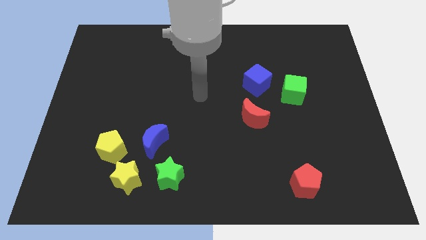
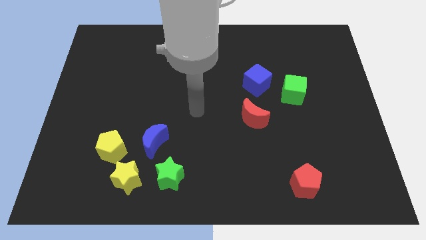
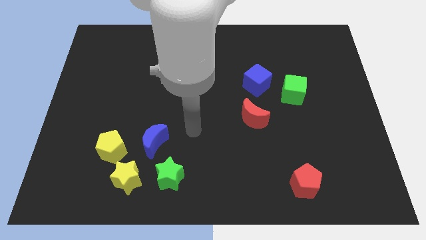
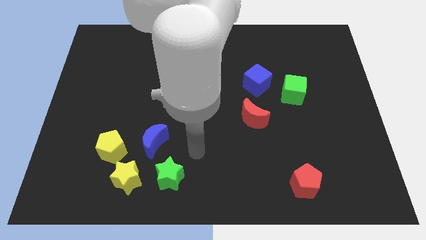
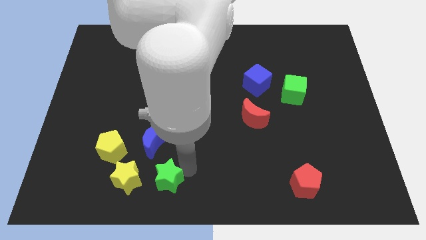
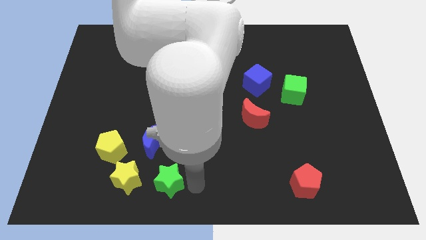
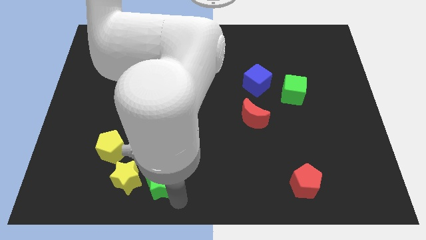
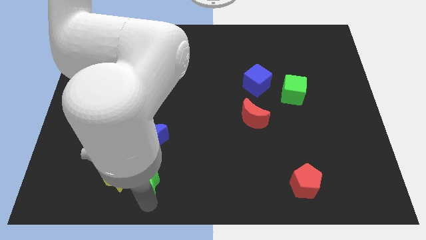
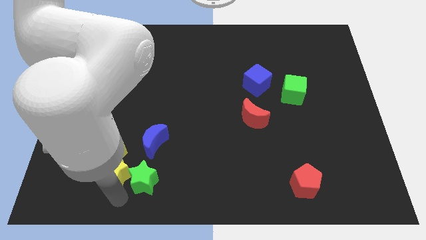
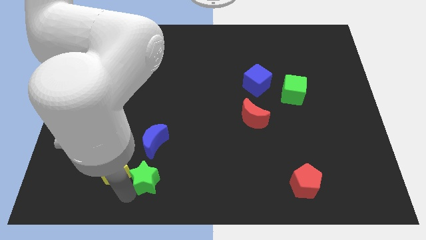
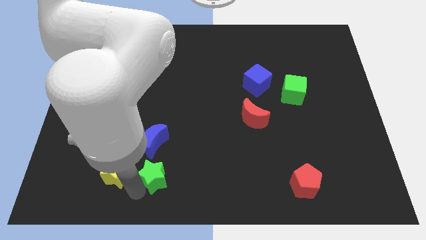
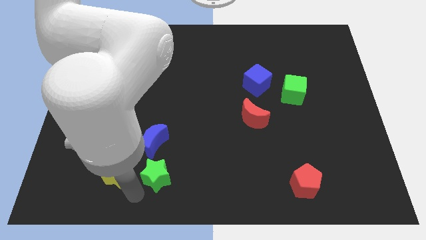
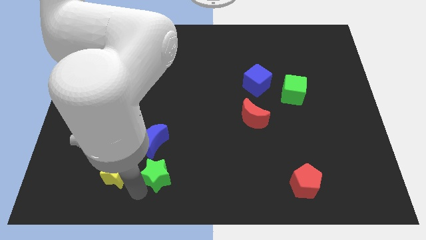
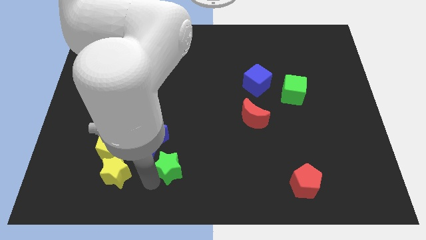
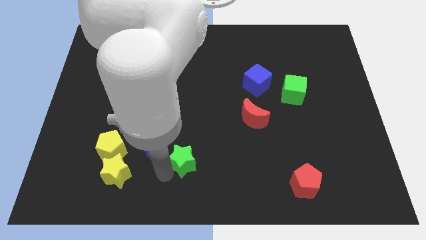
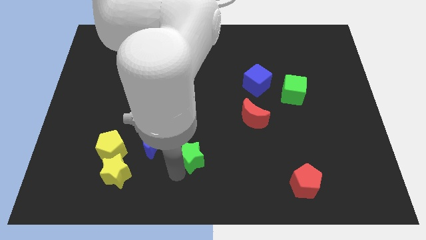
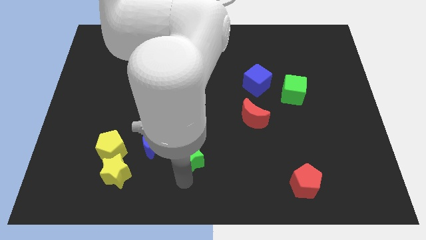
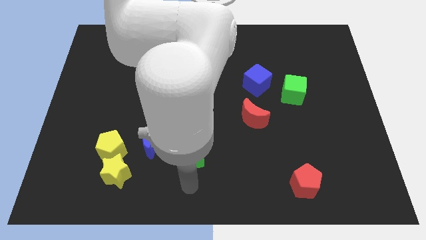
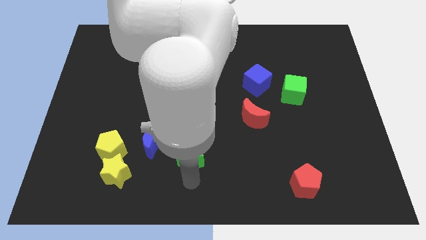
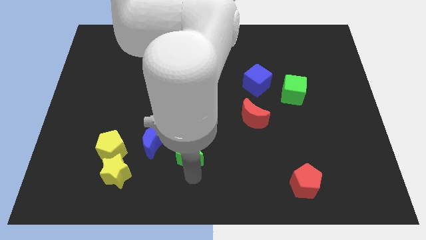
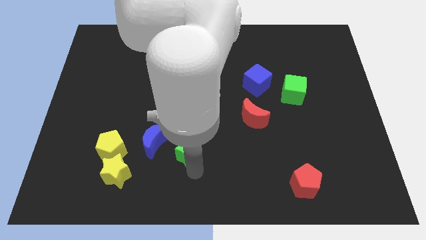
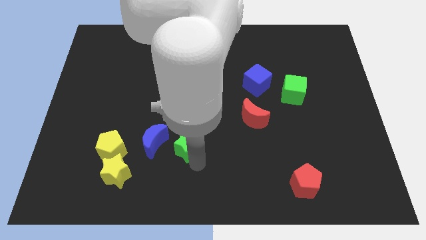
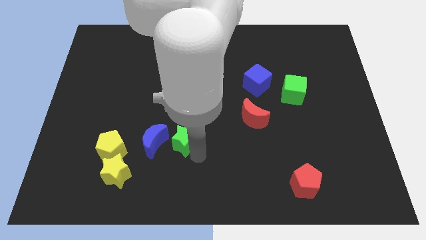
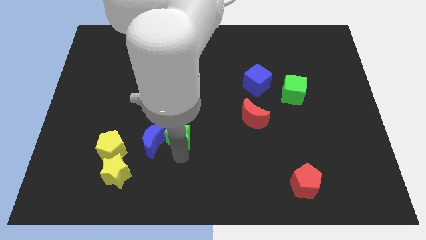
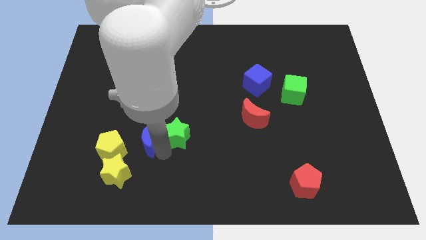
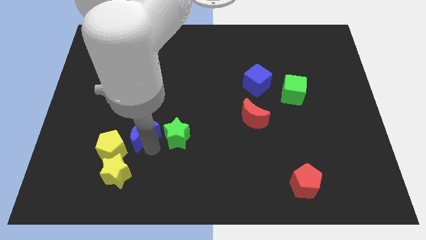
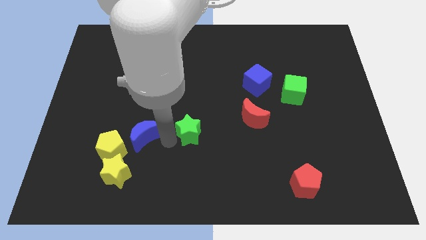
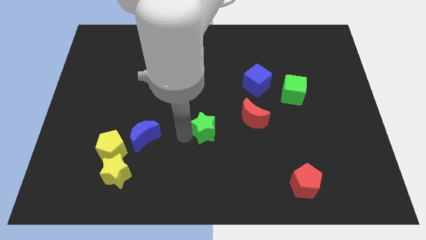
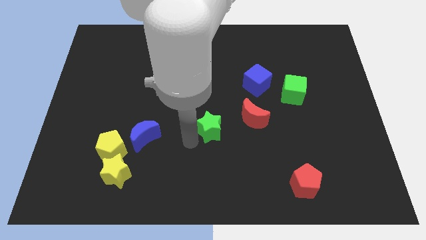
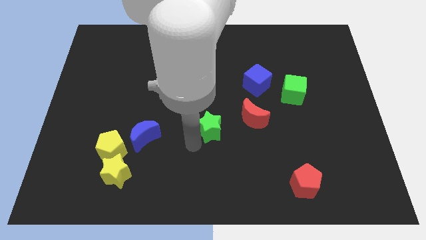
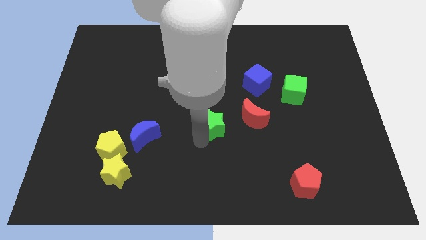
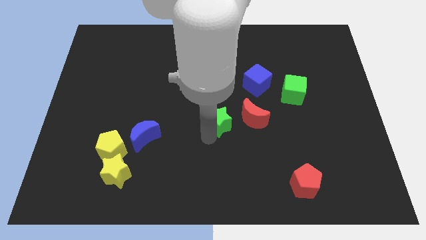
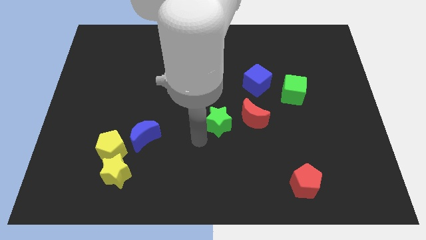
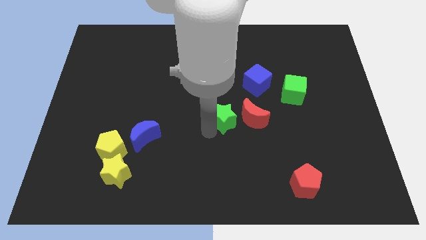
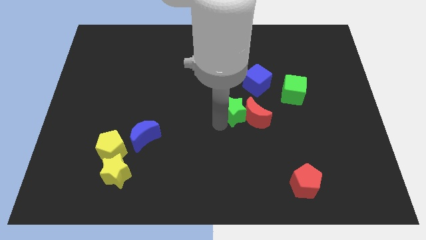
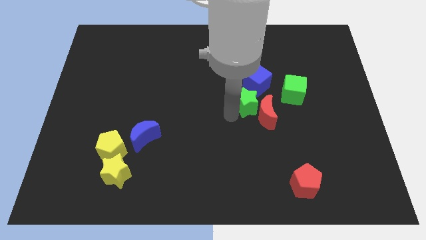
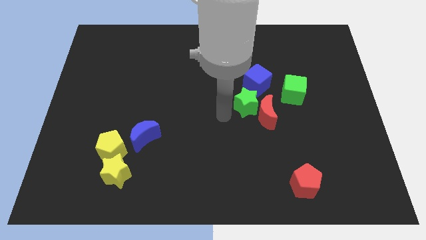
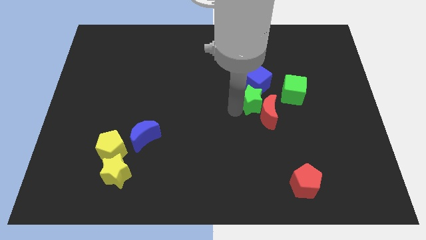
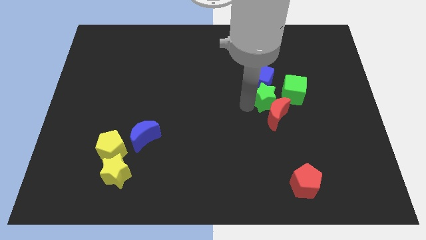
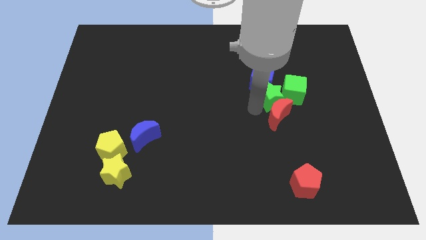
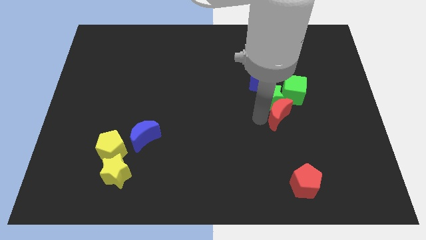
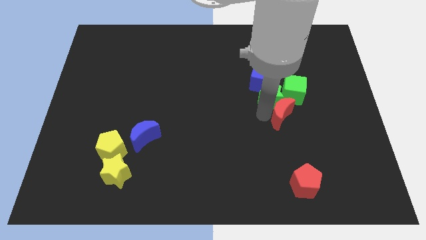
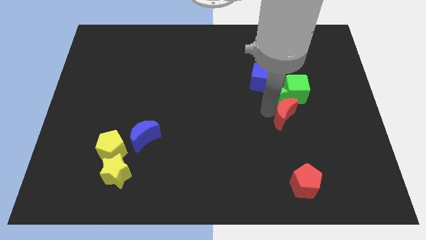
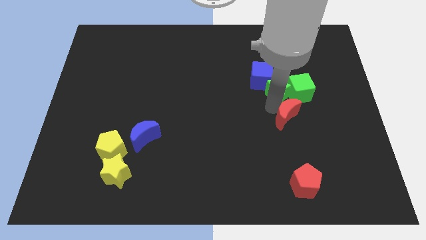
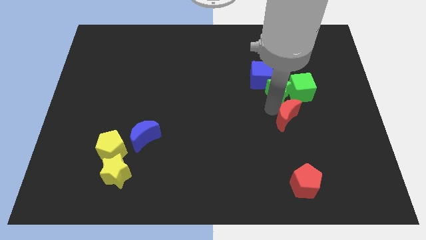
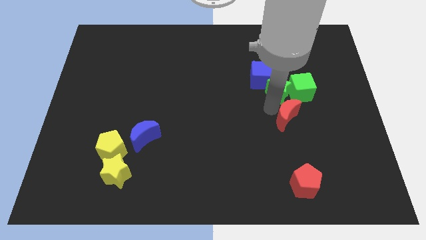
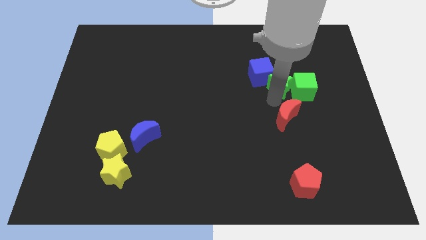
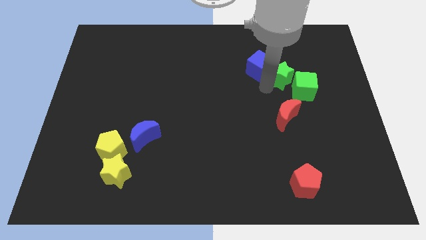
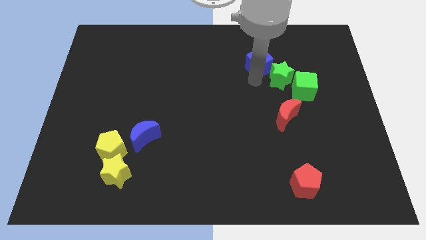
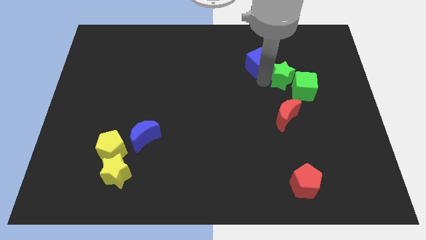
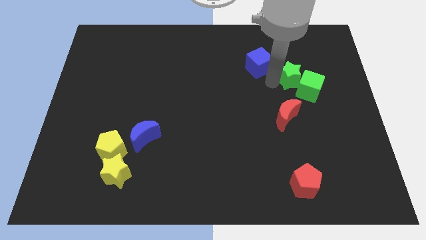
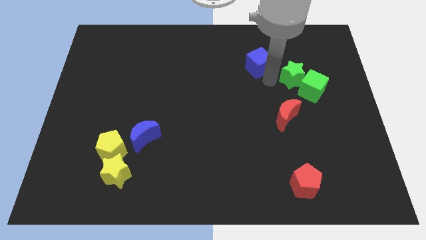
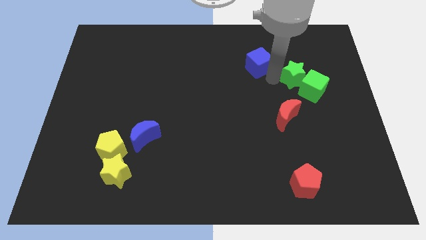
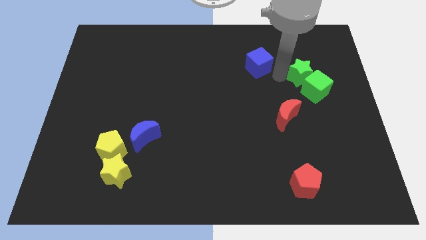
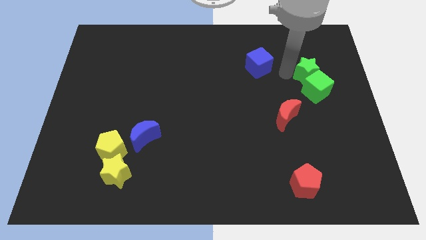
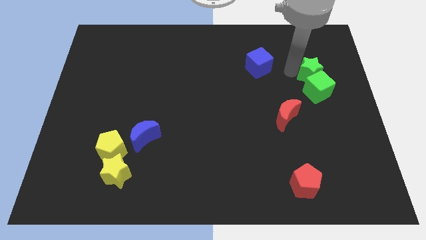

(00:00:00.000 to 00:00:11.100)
move the green star to the top right of the green cube

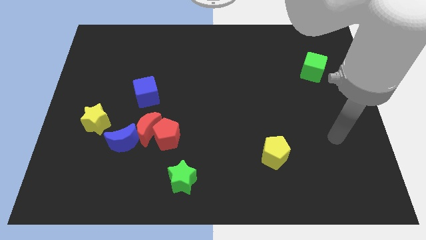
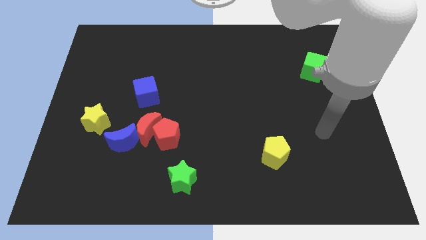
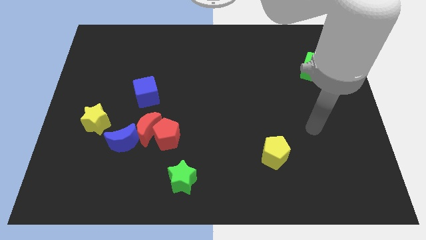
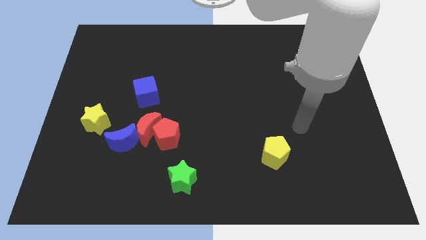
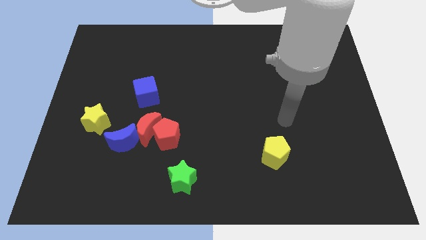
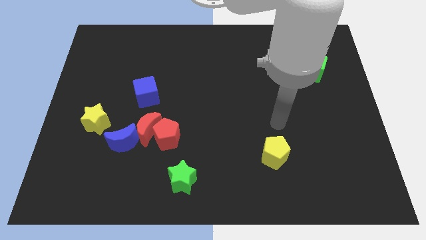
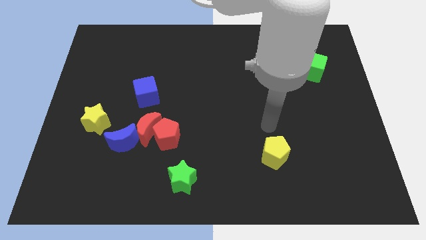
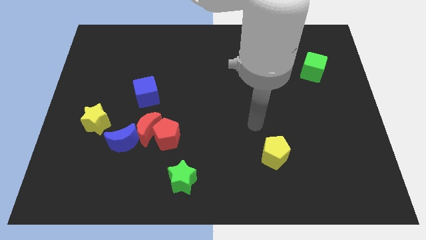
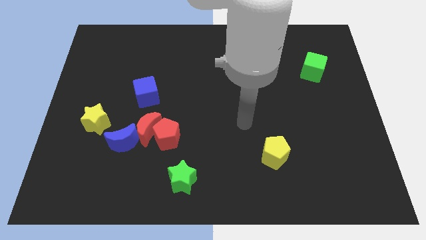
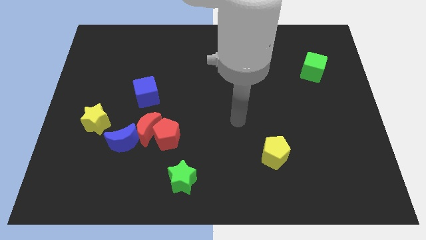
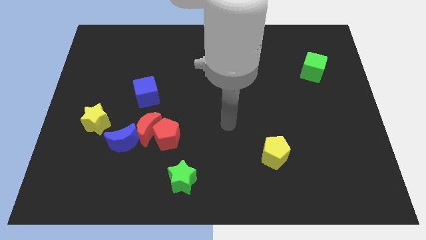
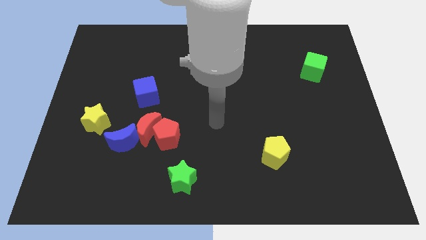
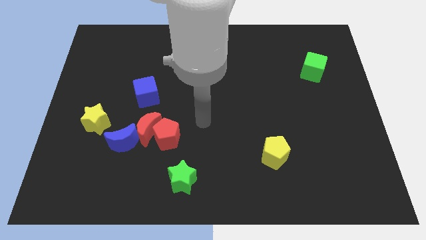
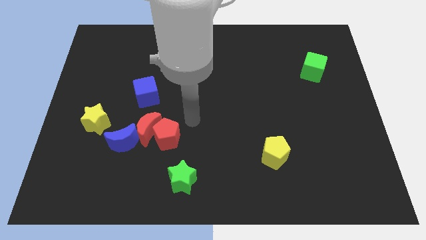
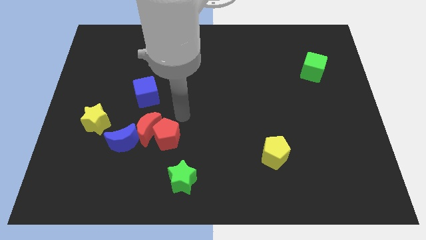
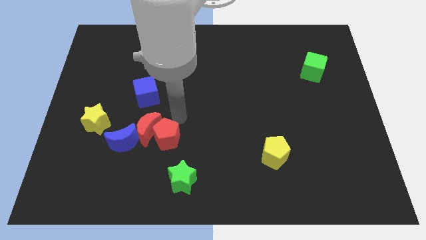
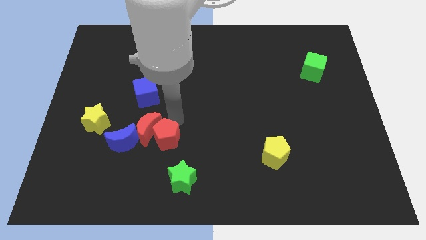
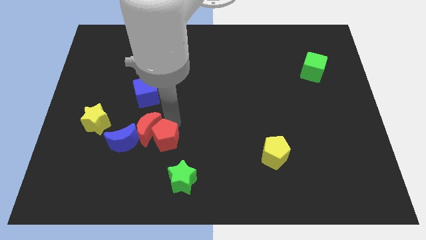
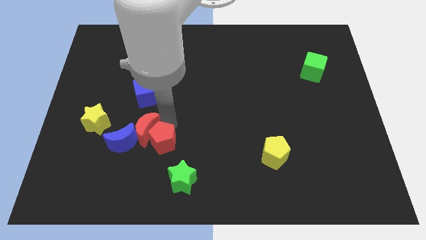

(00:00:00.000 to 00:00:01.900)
put the red pentagon below the red moon
